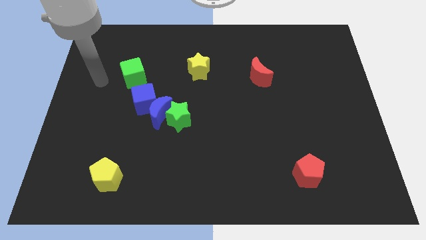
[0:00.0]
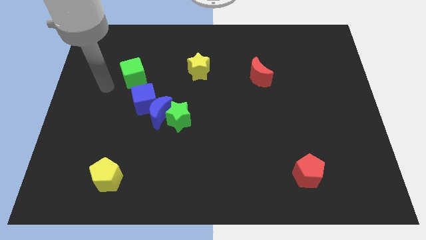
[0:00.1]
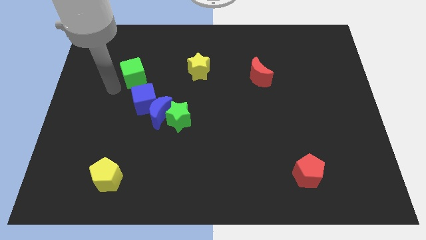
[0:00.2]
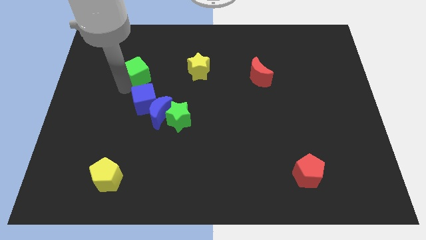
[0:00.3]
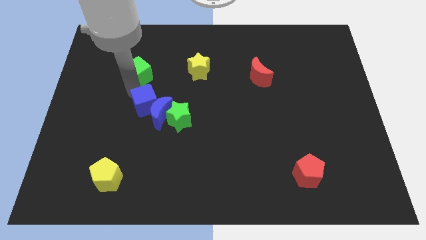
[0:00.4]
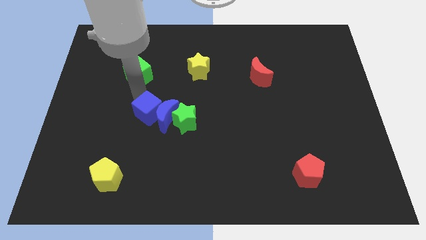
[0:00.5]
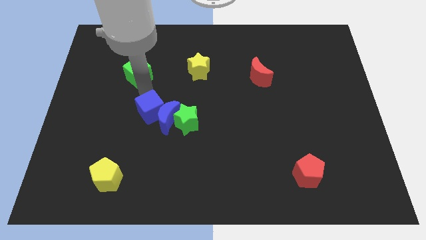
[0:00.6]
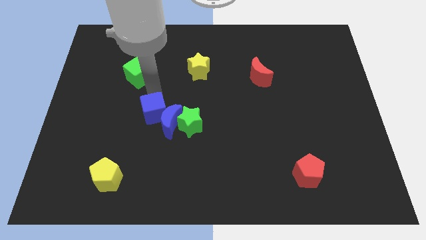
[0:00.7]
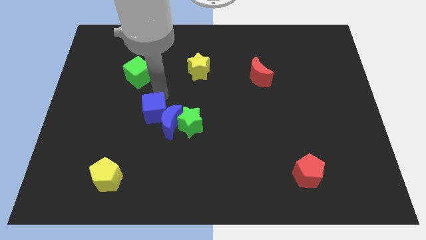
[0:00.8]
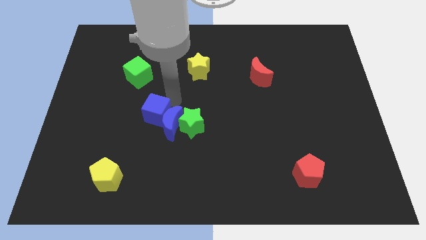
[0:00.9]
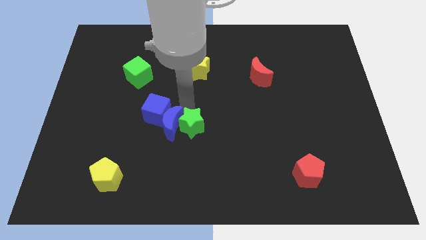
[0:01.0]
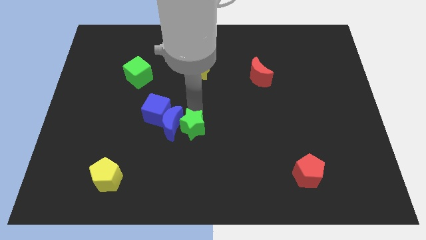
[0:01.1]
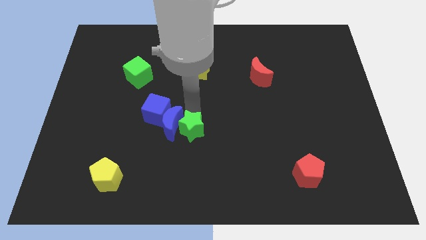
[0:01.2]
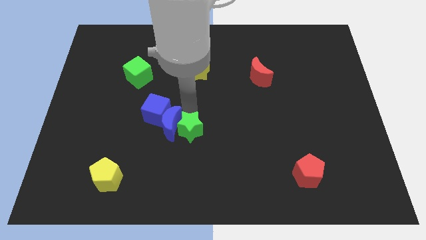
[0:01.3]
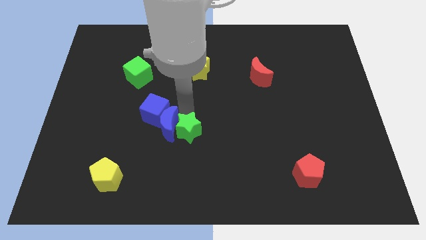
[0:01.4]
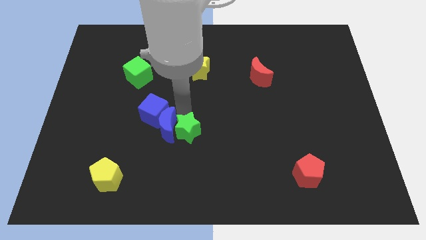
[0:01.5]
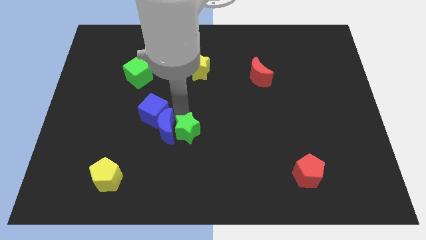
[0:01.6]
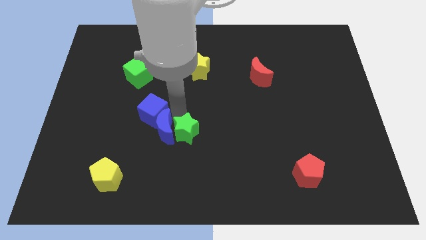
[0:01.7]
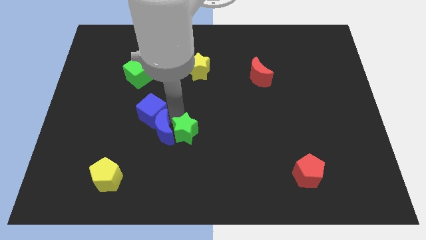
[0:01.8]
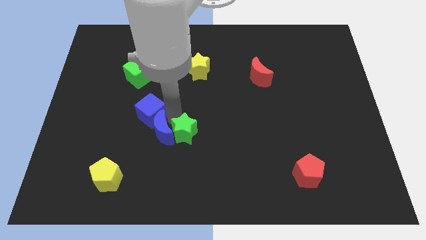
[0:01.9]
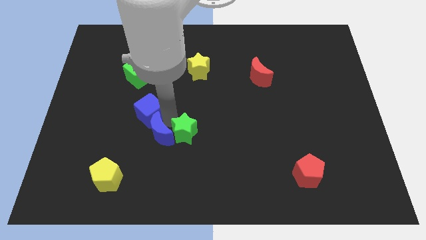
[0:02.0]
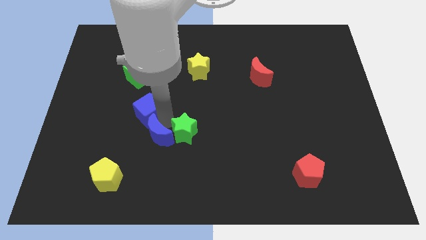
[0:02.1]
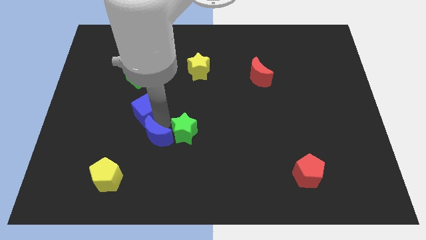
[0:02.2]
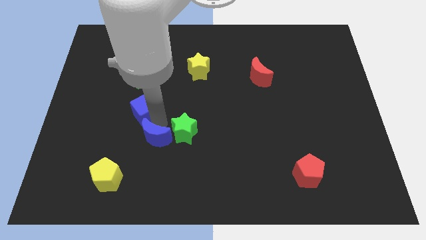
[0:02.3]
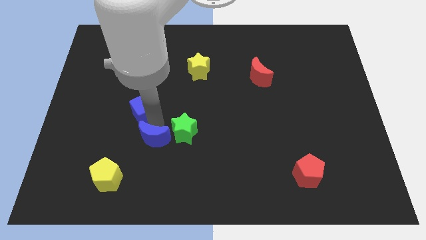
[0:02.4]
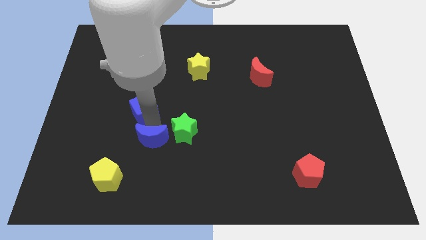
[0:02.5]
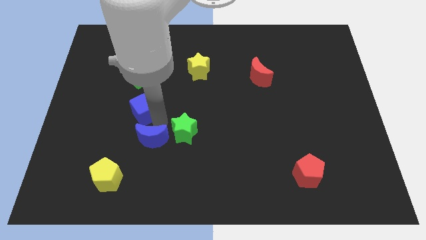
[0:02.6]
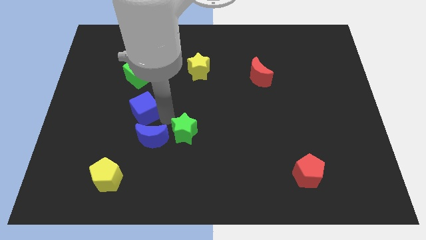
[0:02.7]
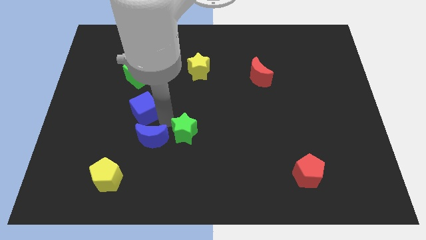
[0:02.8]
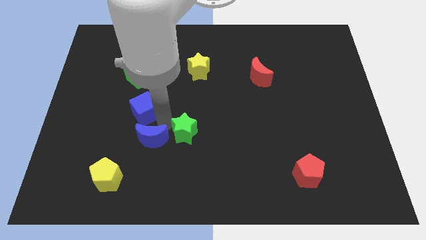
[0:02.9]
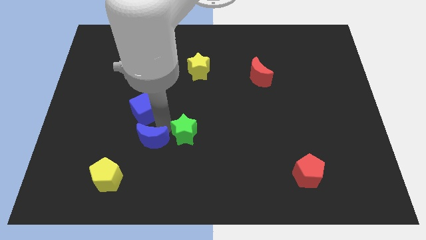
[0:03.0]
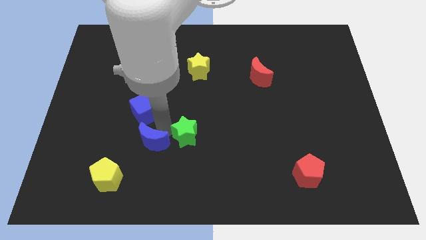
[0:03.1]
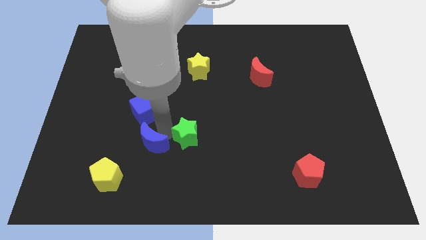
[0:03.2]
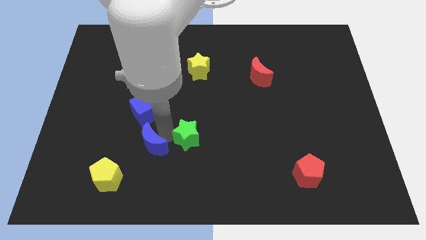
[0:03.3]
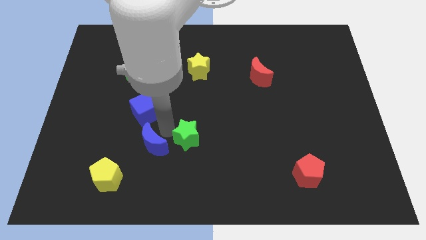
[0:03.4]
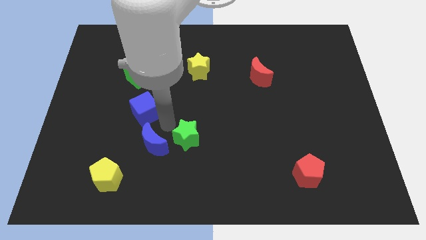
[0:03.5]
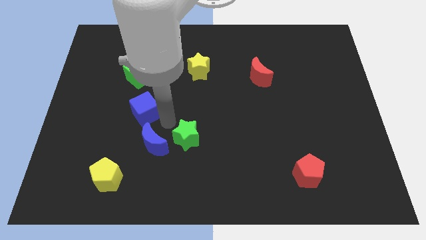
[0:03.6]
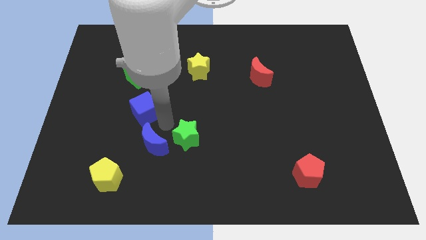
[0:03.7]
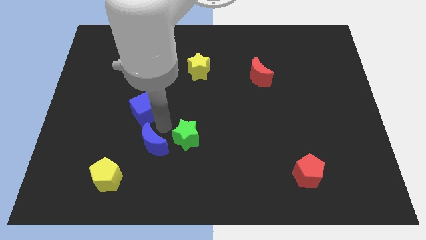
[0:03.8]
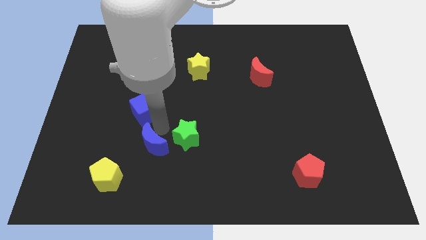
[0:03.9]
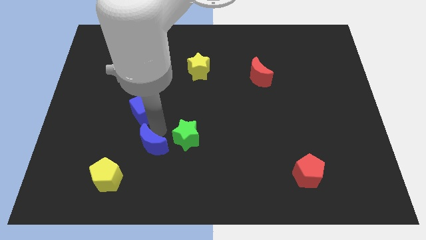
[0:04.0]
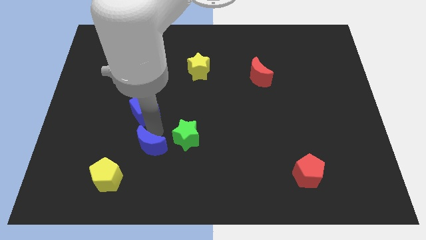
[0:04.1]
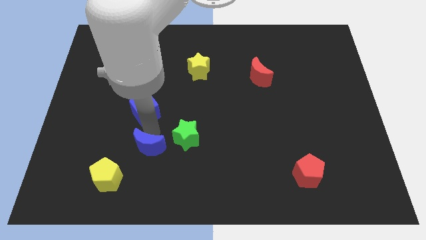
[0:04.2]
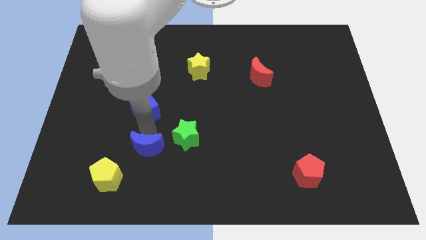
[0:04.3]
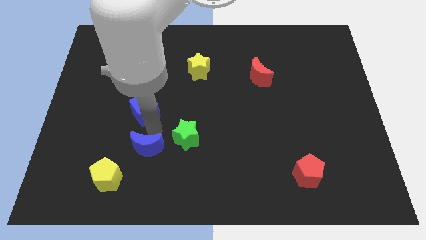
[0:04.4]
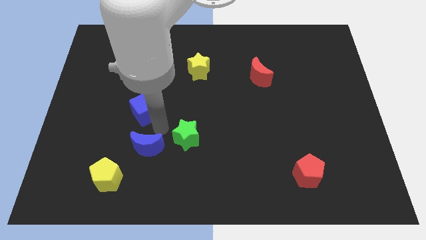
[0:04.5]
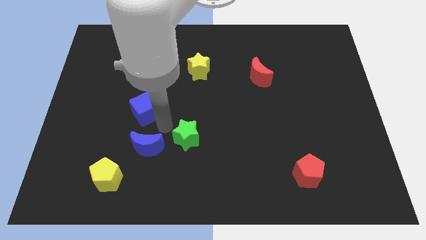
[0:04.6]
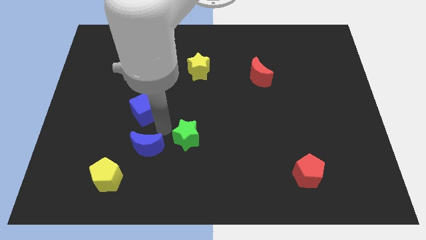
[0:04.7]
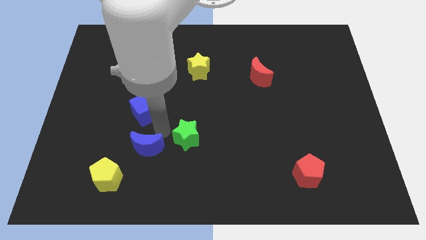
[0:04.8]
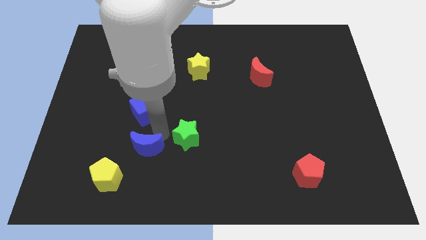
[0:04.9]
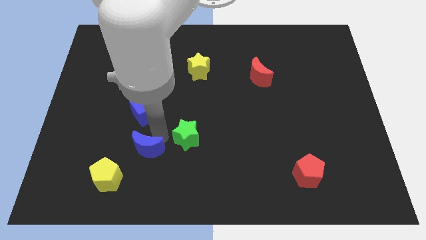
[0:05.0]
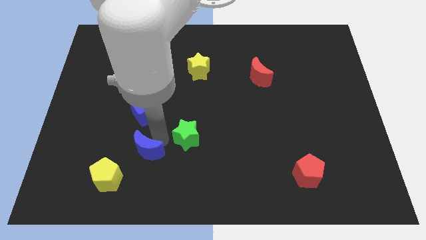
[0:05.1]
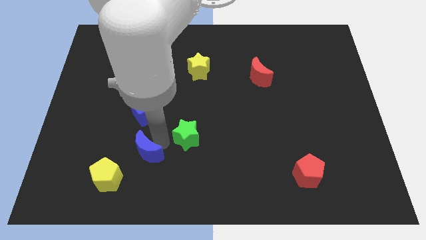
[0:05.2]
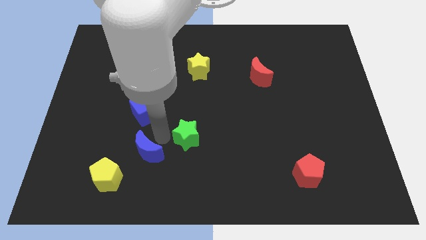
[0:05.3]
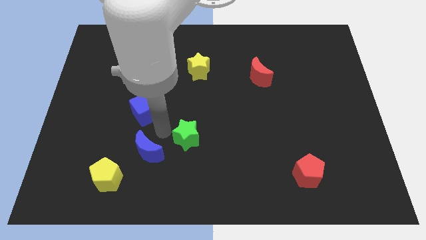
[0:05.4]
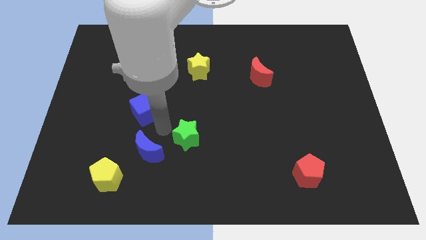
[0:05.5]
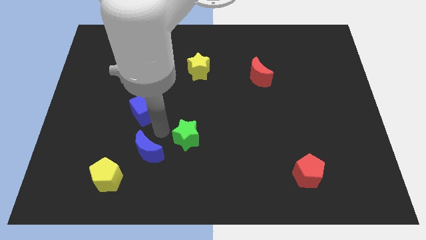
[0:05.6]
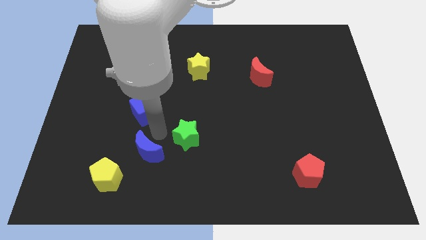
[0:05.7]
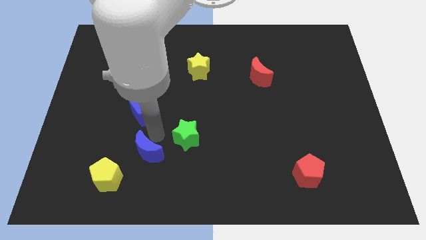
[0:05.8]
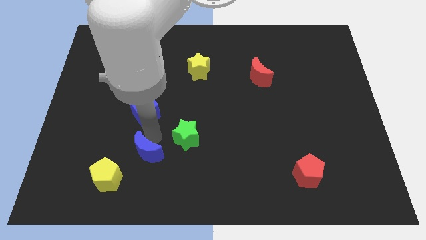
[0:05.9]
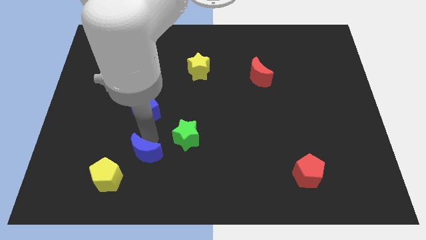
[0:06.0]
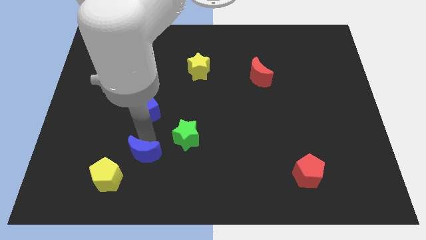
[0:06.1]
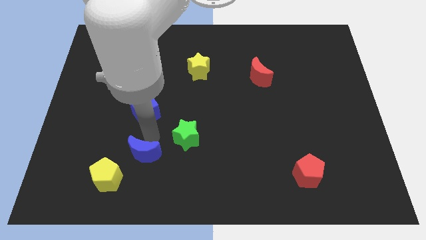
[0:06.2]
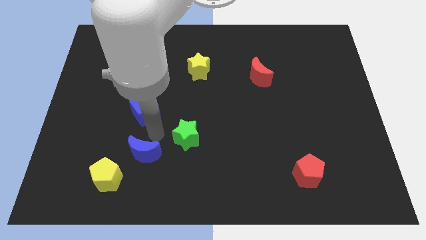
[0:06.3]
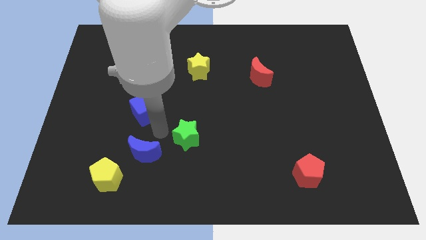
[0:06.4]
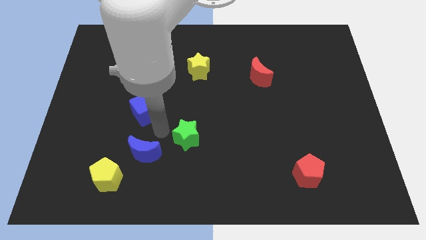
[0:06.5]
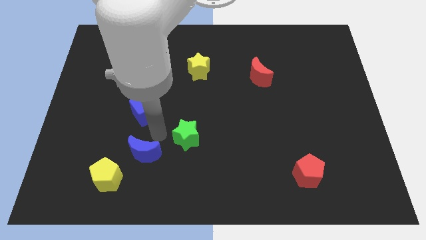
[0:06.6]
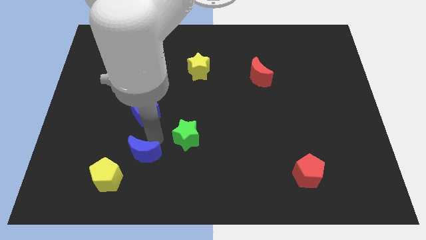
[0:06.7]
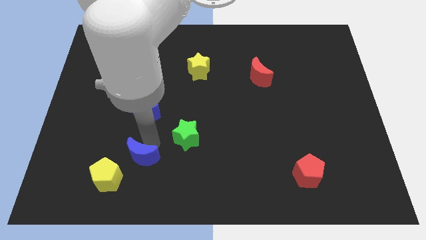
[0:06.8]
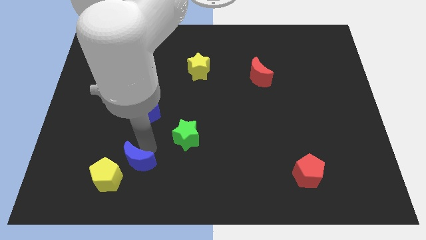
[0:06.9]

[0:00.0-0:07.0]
move the blue moon away from the green star and blue cube

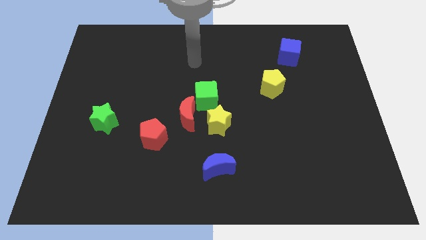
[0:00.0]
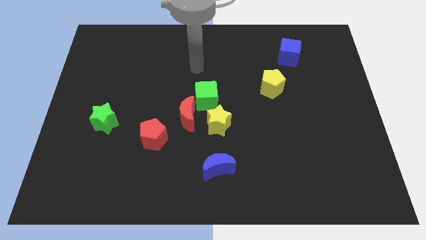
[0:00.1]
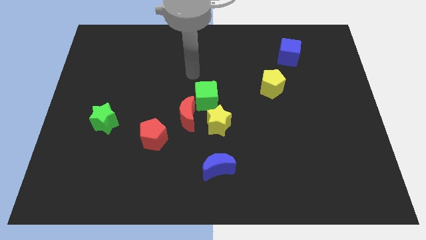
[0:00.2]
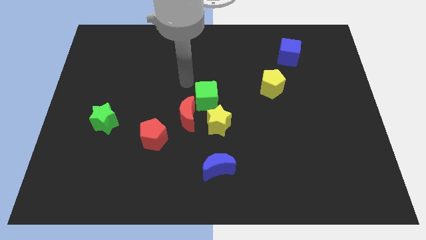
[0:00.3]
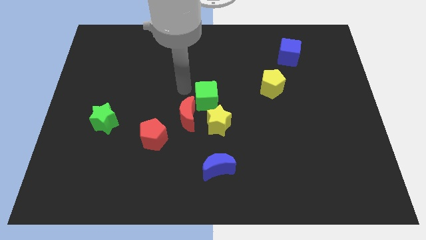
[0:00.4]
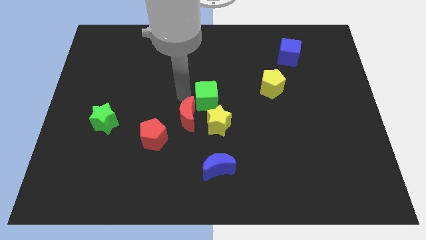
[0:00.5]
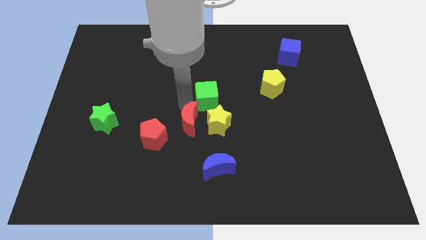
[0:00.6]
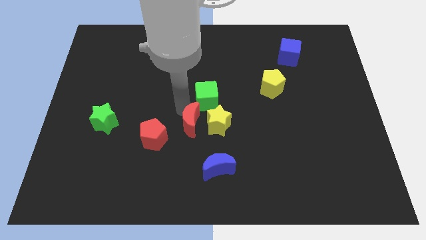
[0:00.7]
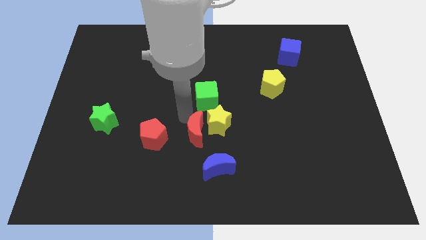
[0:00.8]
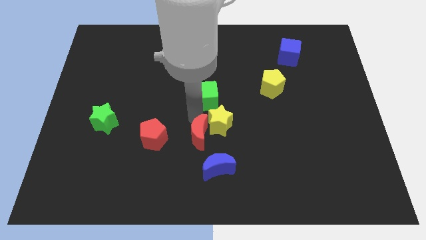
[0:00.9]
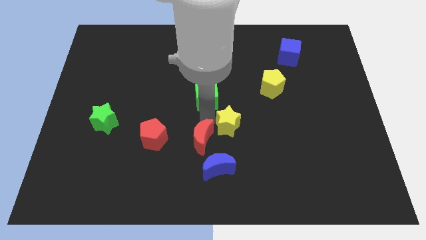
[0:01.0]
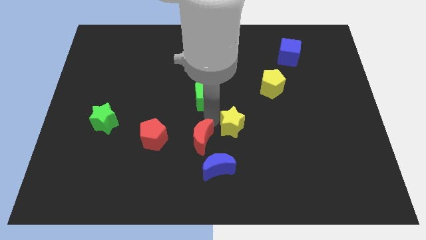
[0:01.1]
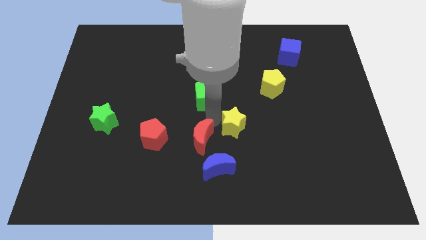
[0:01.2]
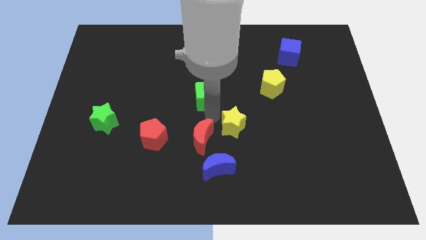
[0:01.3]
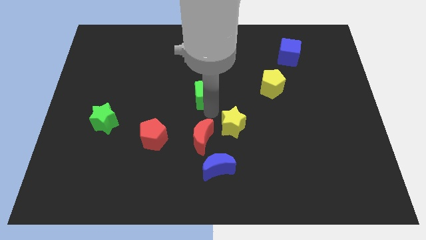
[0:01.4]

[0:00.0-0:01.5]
pull the green cube apart from the red moon and yellow star

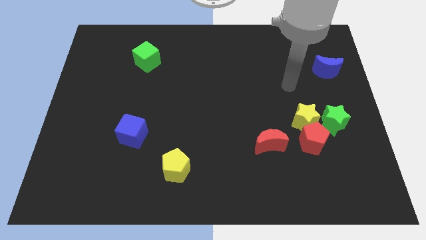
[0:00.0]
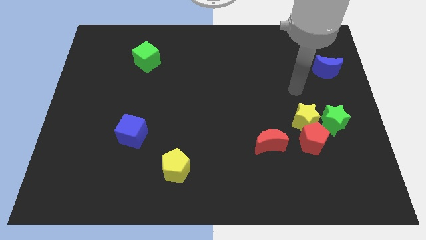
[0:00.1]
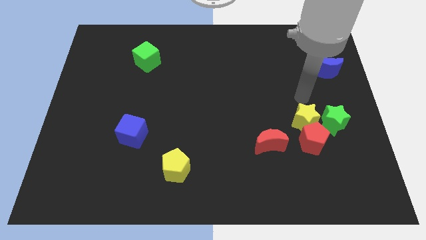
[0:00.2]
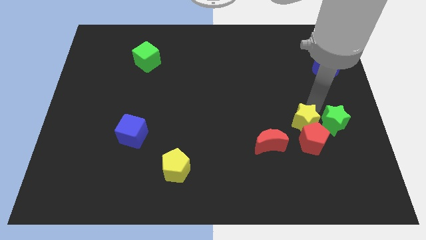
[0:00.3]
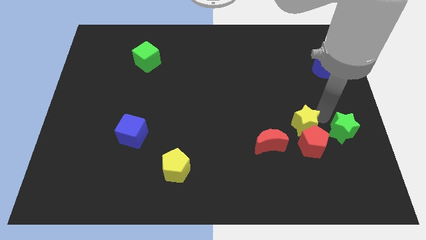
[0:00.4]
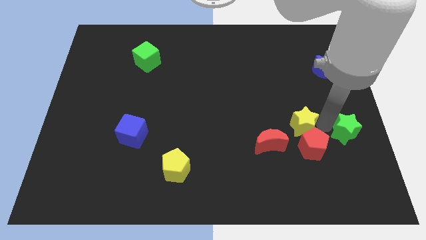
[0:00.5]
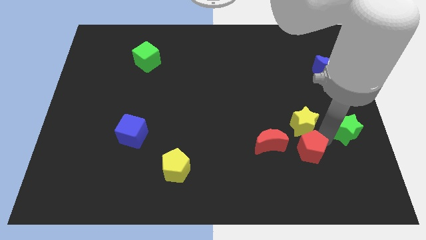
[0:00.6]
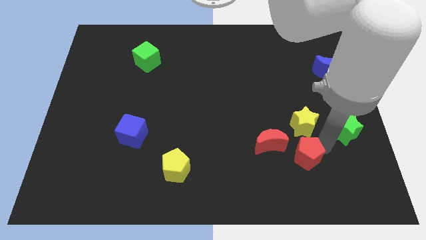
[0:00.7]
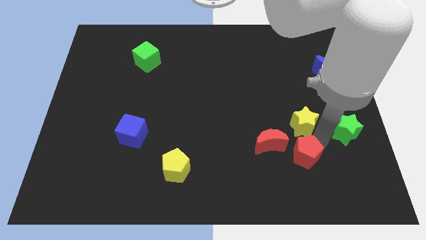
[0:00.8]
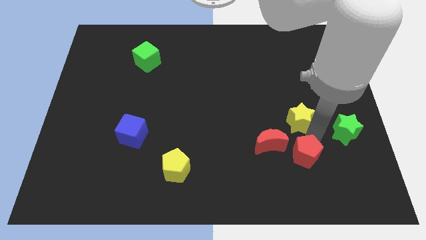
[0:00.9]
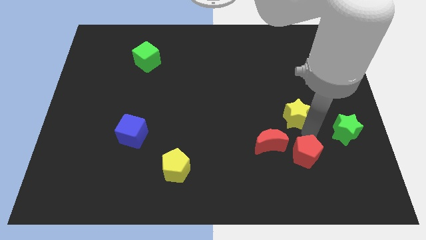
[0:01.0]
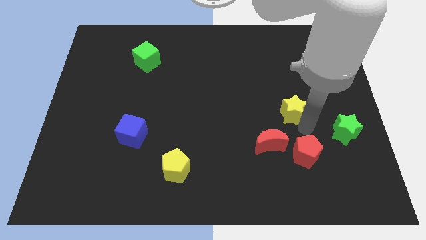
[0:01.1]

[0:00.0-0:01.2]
pull the yellow star apart from the red pentagon and green star
